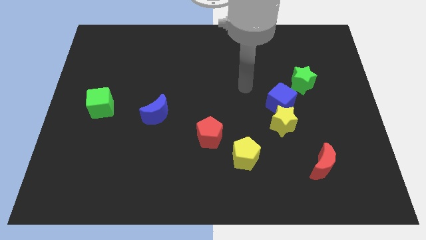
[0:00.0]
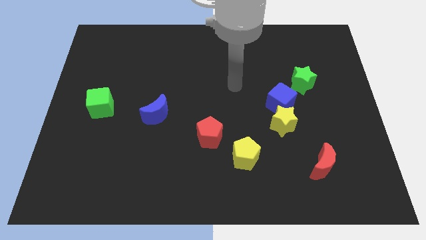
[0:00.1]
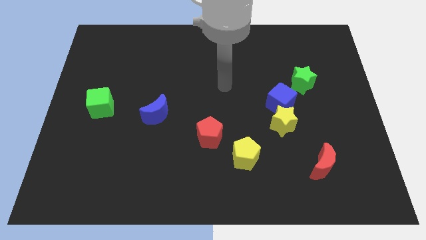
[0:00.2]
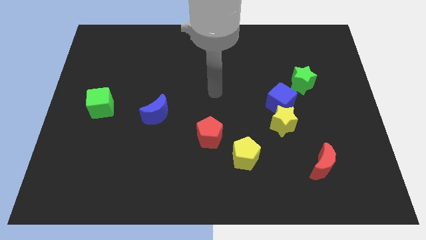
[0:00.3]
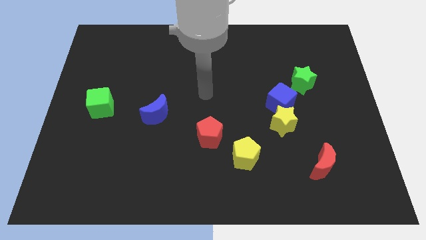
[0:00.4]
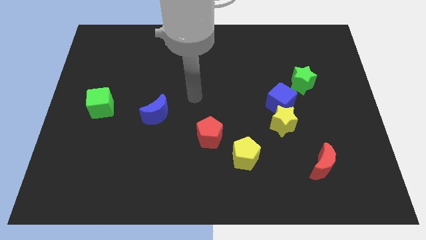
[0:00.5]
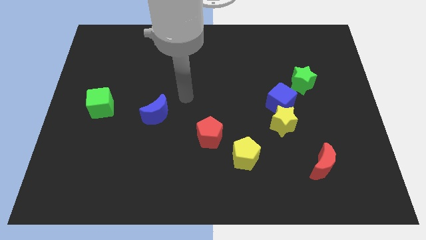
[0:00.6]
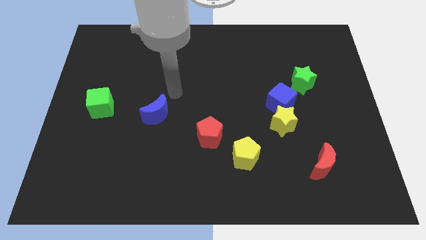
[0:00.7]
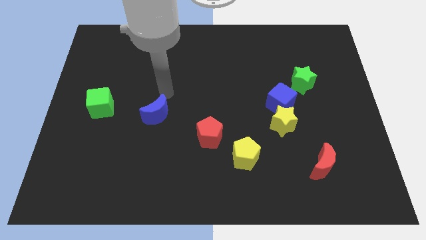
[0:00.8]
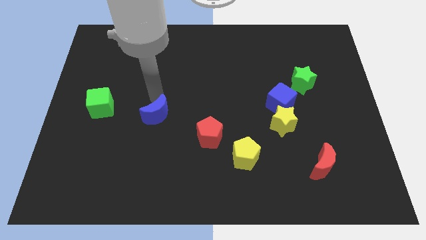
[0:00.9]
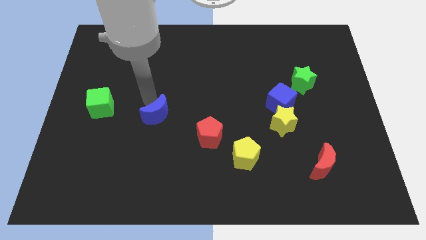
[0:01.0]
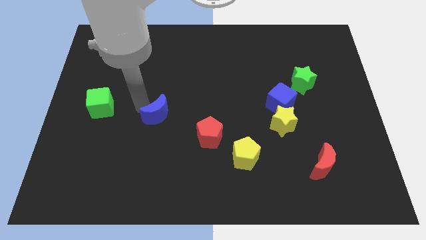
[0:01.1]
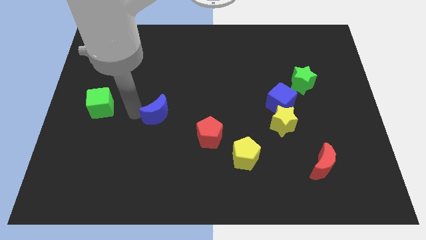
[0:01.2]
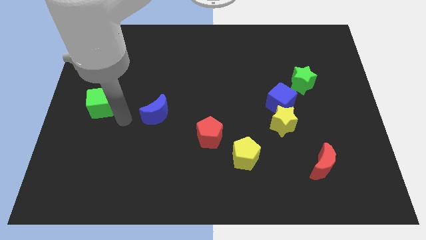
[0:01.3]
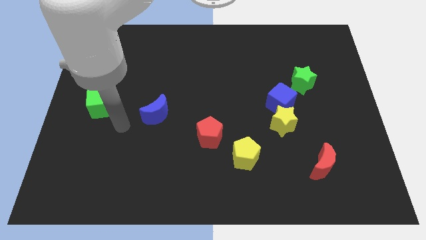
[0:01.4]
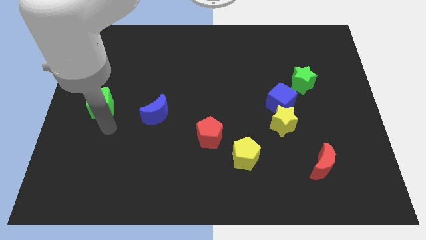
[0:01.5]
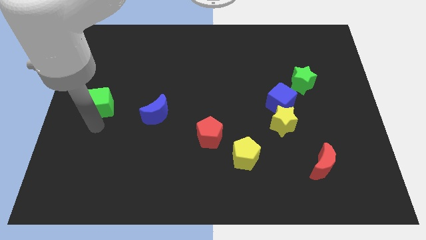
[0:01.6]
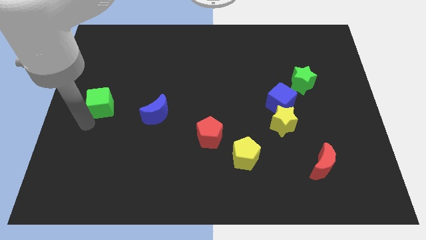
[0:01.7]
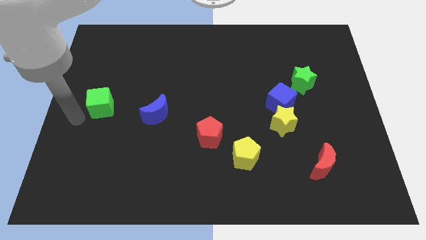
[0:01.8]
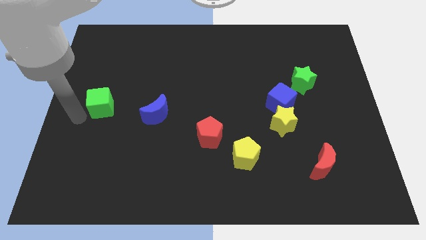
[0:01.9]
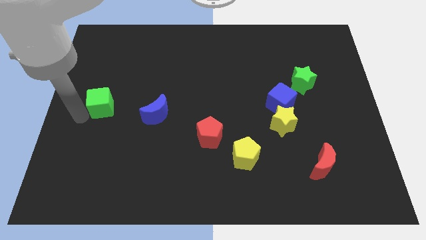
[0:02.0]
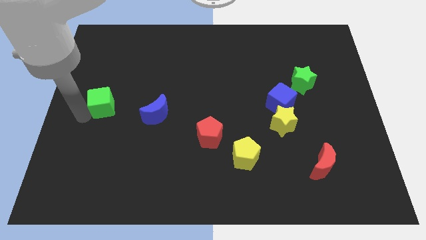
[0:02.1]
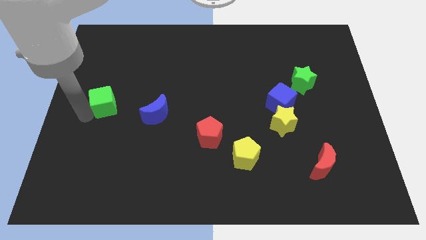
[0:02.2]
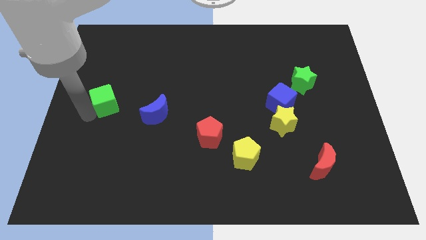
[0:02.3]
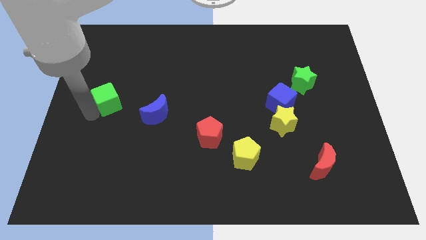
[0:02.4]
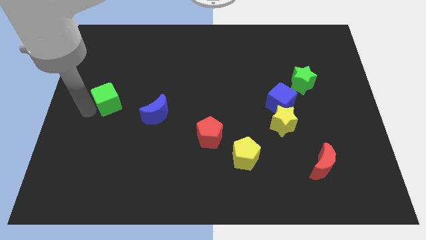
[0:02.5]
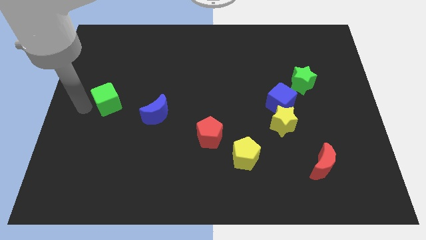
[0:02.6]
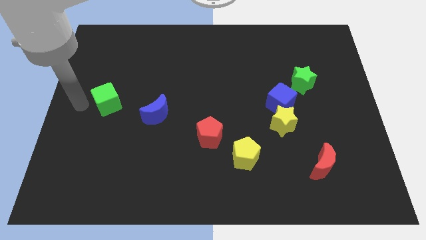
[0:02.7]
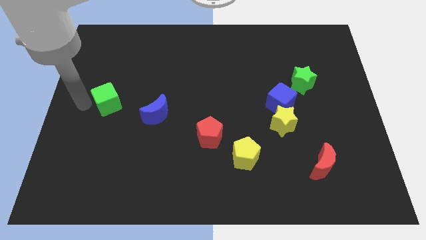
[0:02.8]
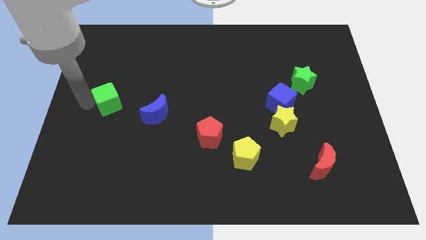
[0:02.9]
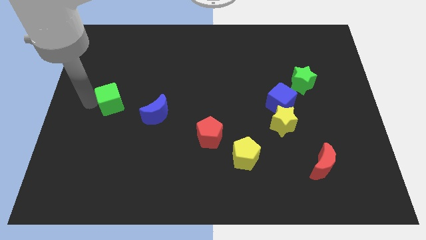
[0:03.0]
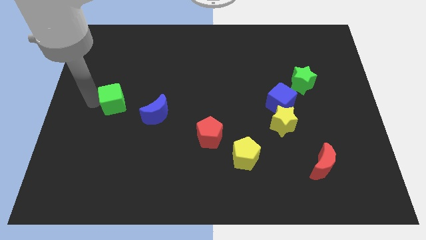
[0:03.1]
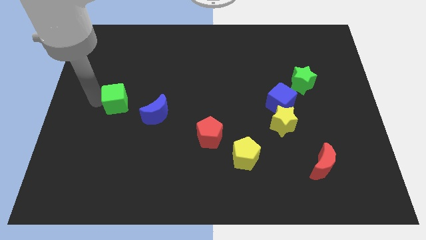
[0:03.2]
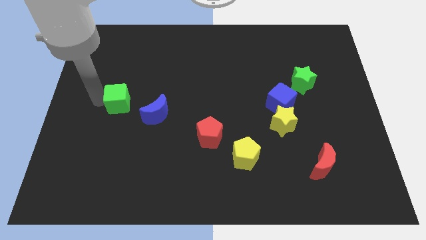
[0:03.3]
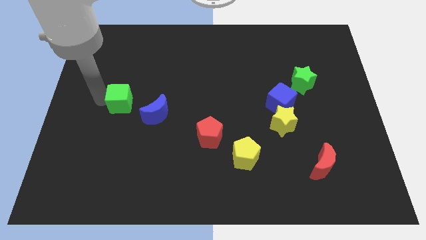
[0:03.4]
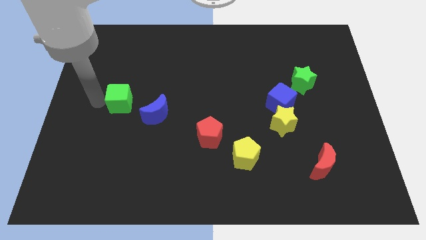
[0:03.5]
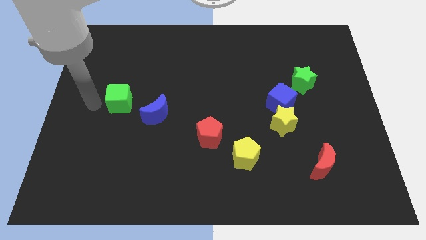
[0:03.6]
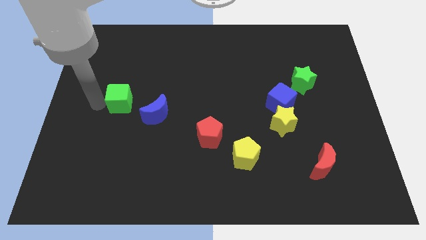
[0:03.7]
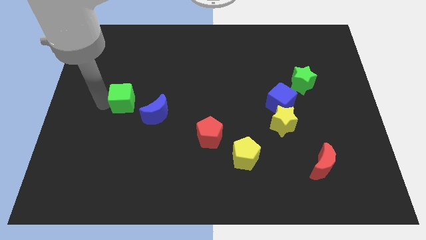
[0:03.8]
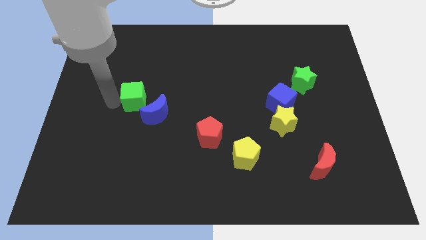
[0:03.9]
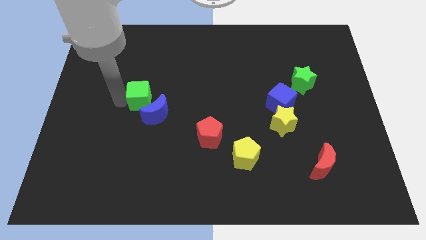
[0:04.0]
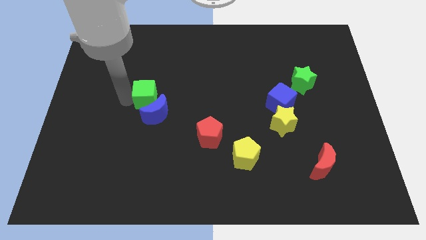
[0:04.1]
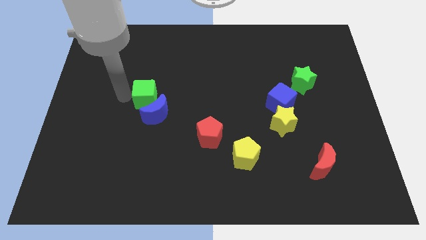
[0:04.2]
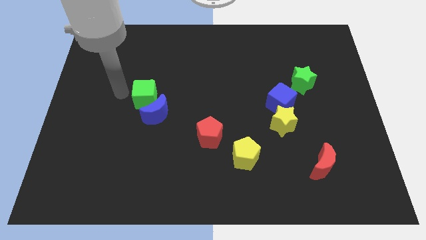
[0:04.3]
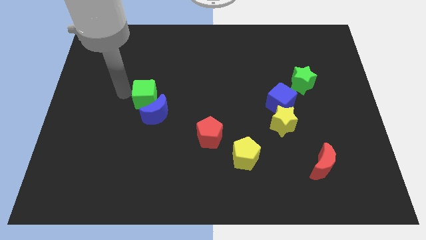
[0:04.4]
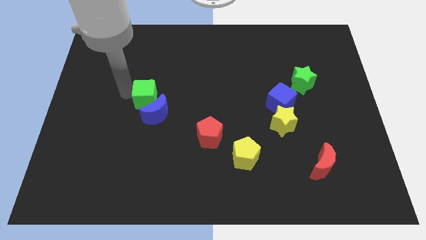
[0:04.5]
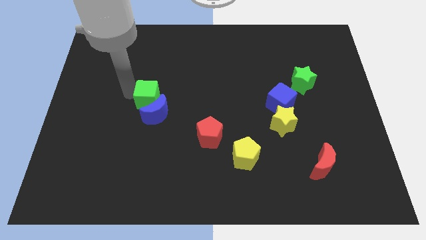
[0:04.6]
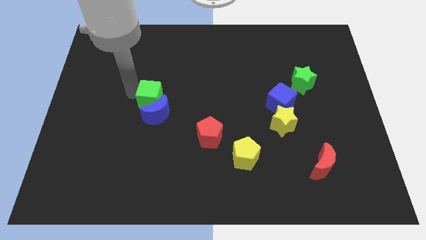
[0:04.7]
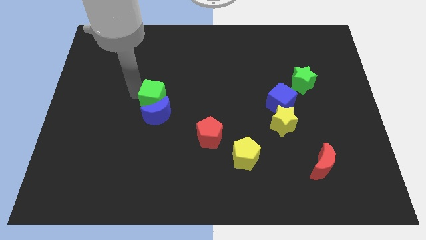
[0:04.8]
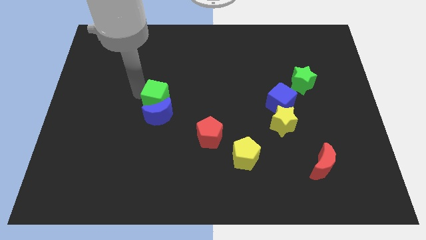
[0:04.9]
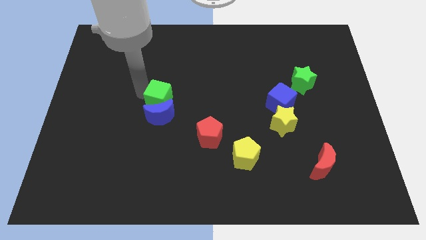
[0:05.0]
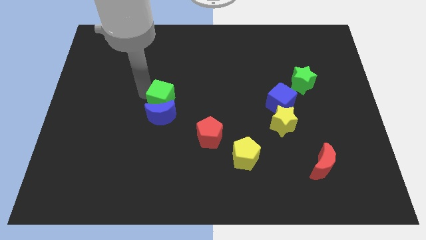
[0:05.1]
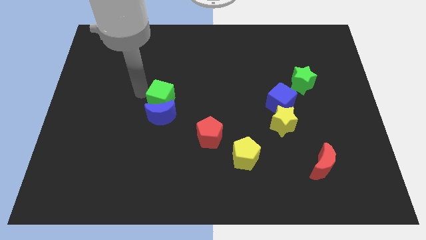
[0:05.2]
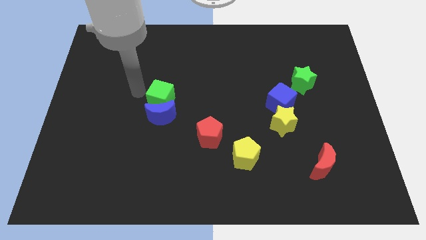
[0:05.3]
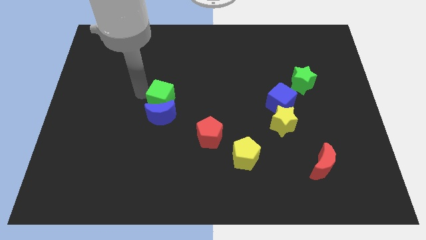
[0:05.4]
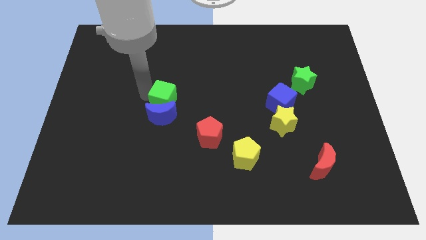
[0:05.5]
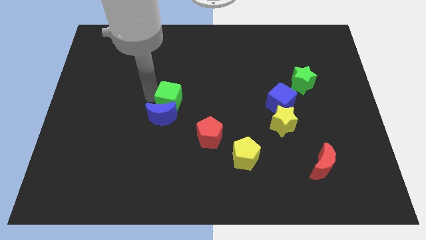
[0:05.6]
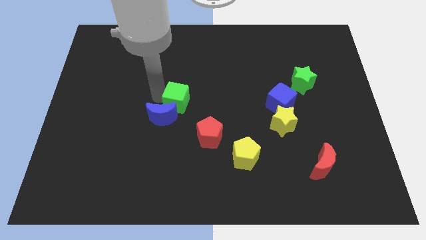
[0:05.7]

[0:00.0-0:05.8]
push the green cube to the top left of the red pentagon

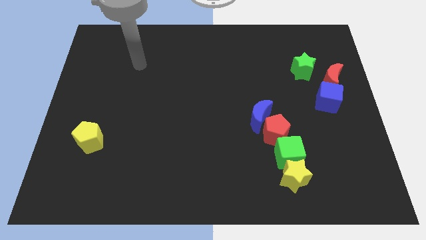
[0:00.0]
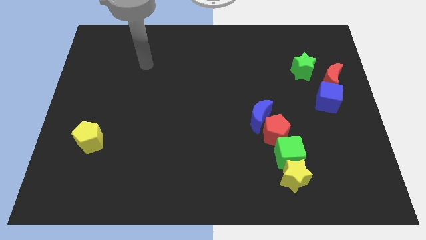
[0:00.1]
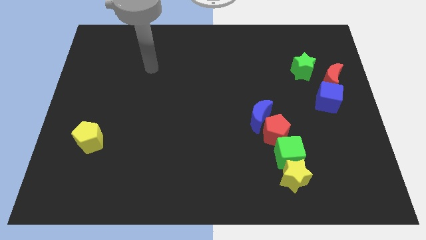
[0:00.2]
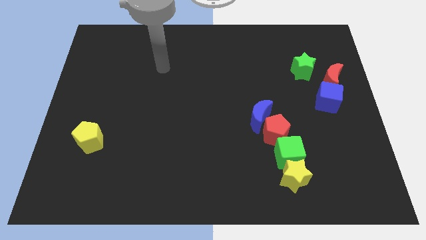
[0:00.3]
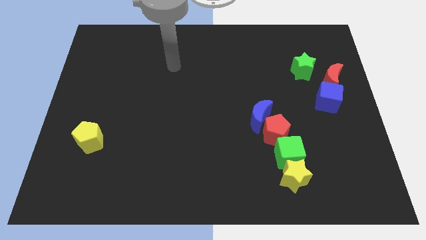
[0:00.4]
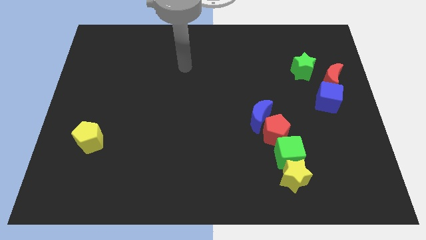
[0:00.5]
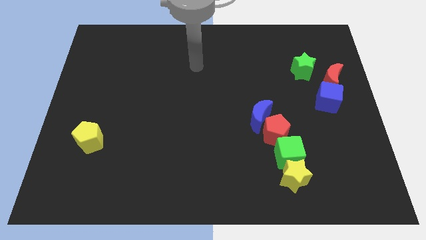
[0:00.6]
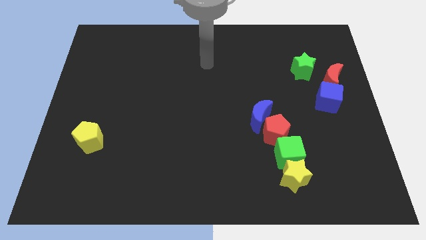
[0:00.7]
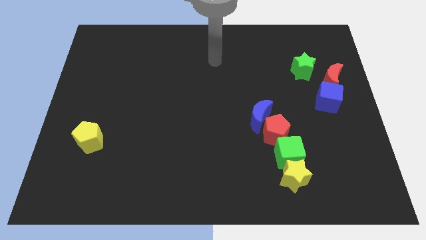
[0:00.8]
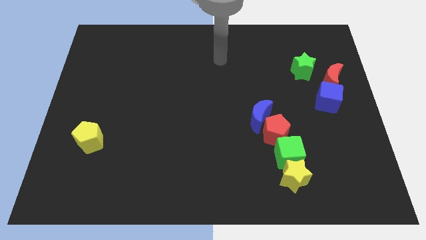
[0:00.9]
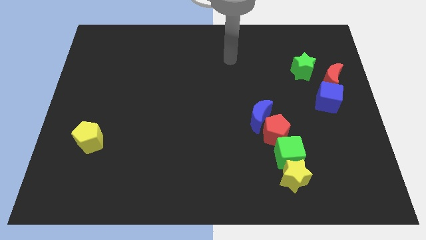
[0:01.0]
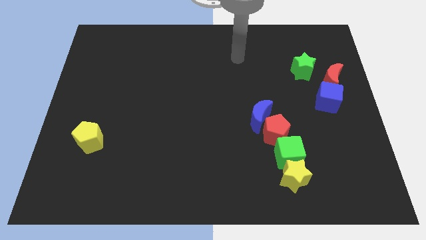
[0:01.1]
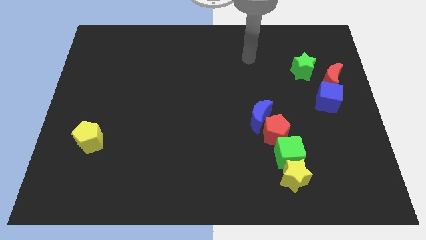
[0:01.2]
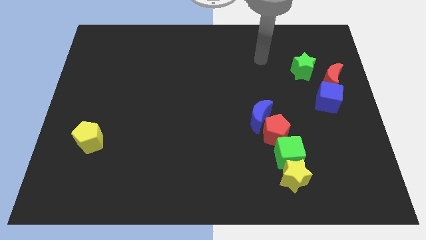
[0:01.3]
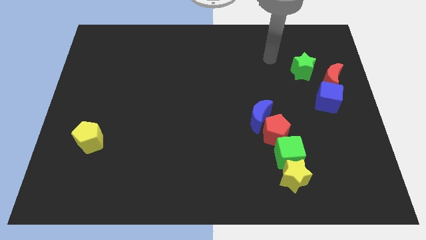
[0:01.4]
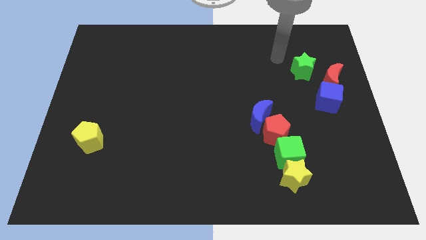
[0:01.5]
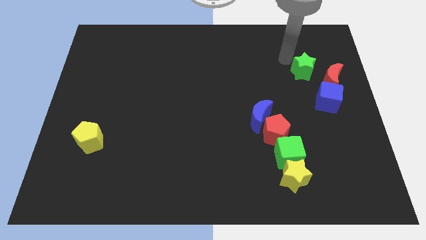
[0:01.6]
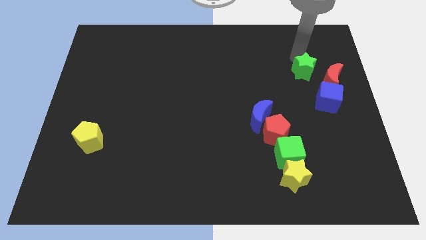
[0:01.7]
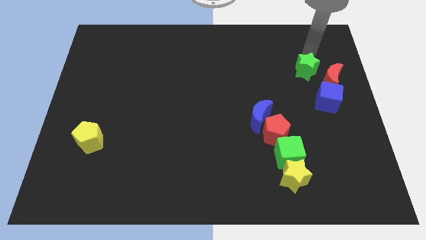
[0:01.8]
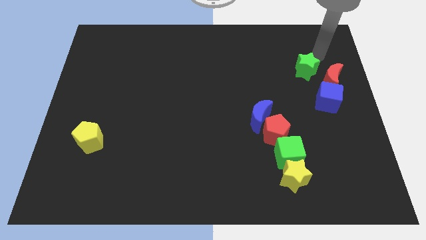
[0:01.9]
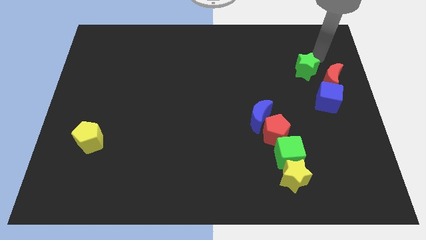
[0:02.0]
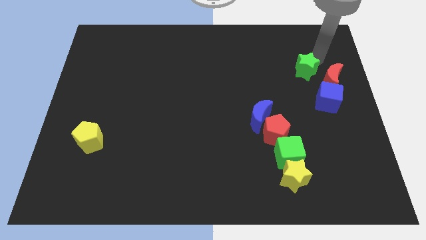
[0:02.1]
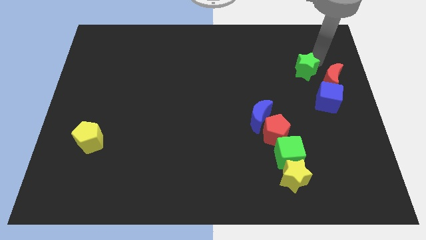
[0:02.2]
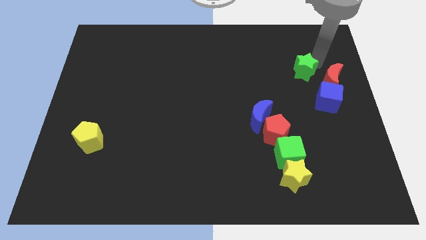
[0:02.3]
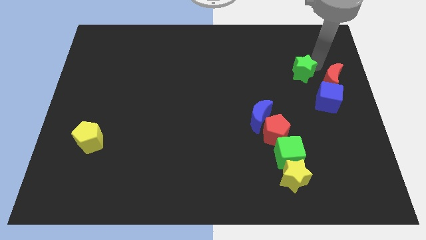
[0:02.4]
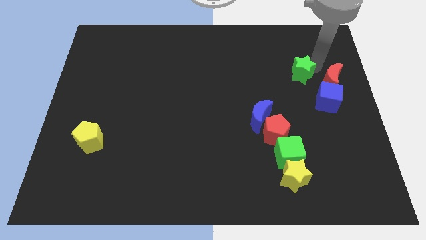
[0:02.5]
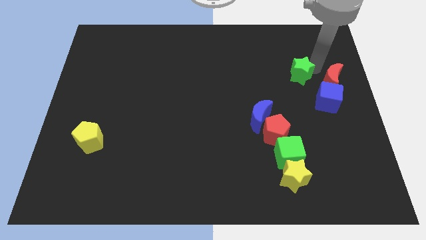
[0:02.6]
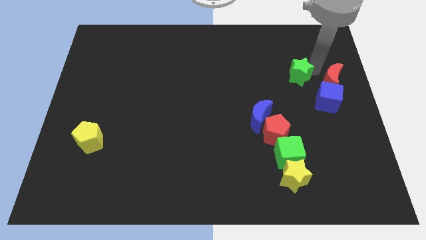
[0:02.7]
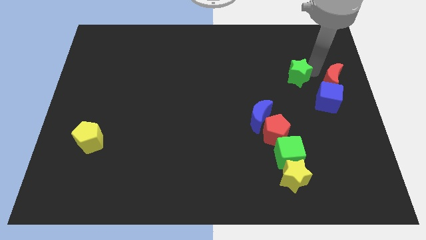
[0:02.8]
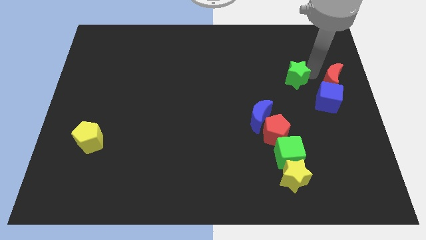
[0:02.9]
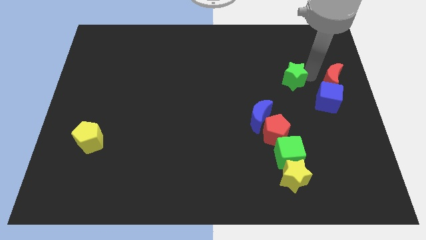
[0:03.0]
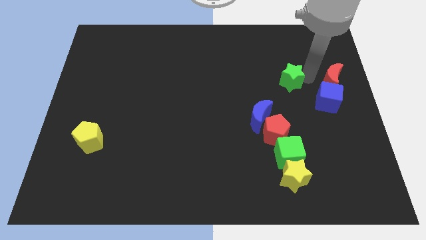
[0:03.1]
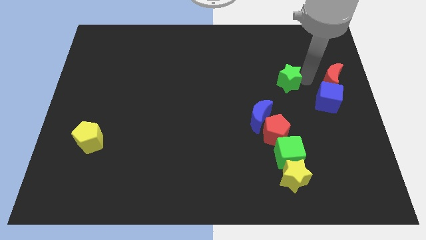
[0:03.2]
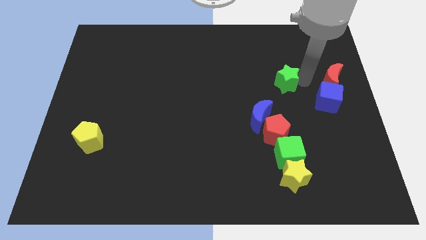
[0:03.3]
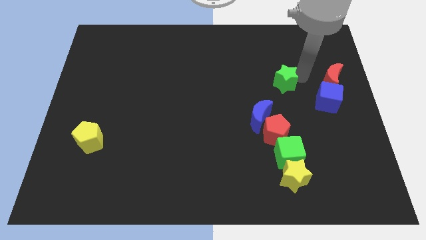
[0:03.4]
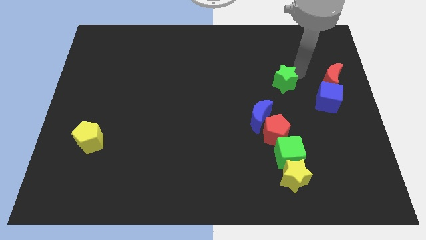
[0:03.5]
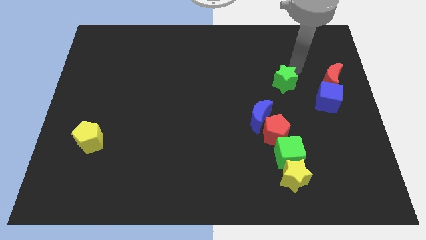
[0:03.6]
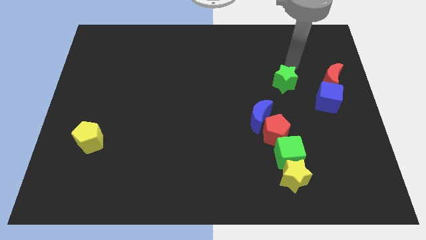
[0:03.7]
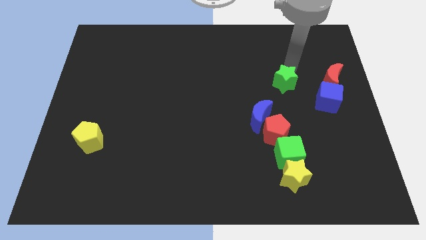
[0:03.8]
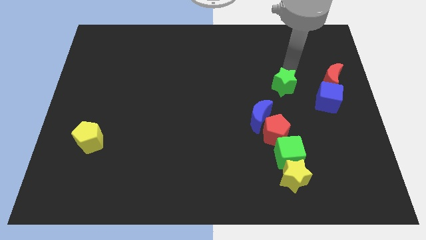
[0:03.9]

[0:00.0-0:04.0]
push the green star to the top right side of the blue moon
